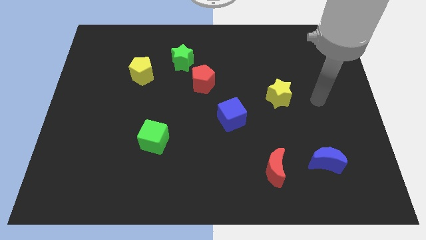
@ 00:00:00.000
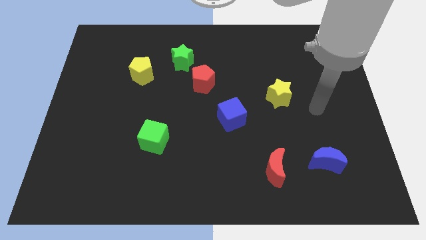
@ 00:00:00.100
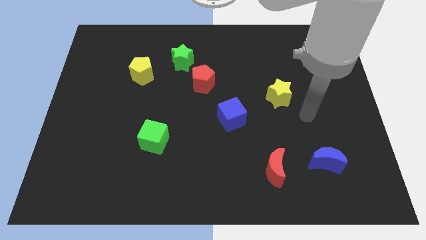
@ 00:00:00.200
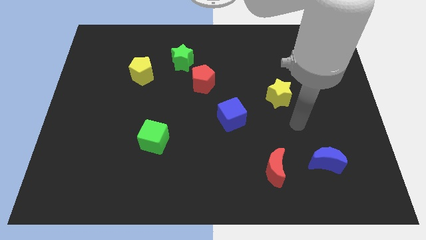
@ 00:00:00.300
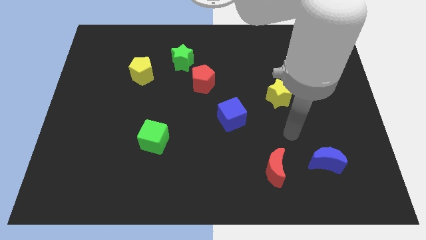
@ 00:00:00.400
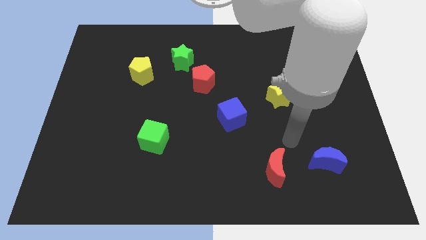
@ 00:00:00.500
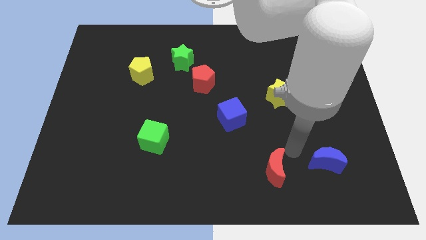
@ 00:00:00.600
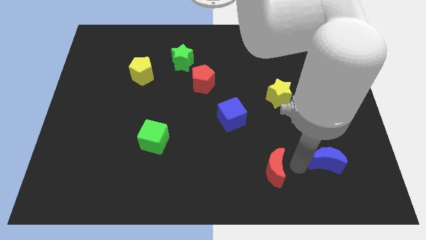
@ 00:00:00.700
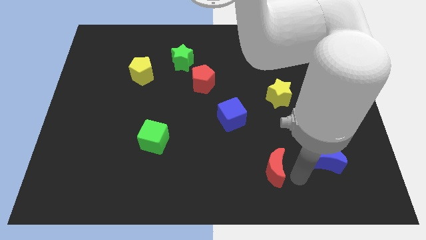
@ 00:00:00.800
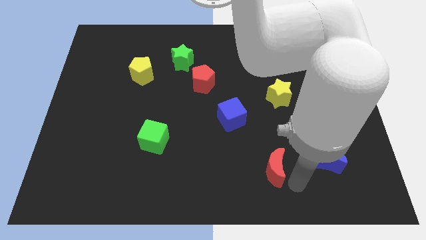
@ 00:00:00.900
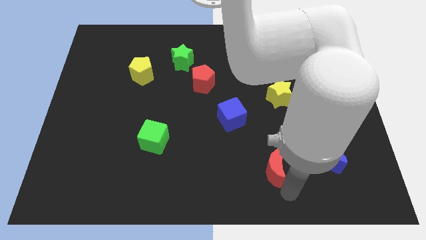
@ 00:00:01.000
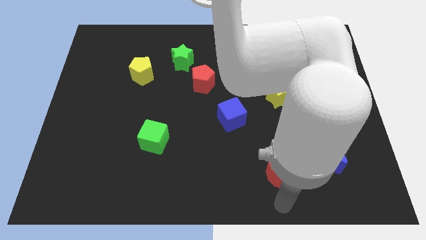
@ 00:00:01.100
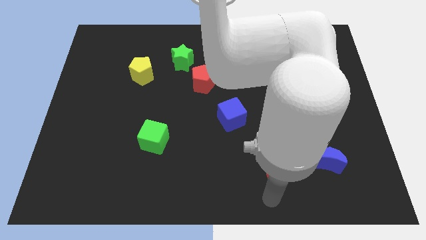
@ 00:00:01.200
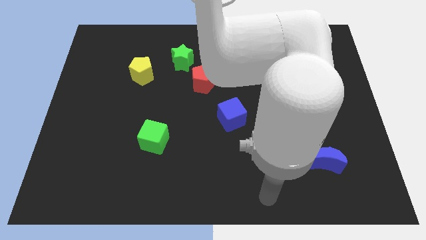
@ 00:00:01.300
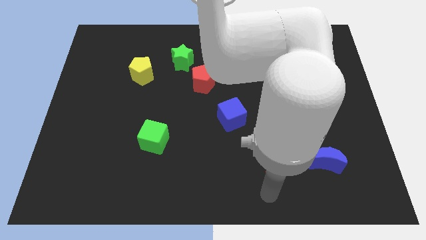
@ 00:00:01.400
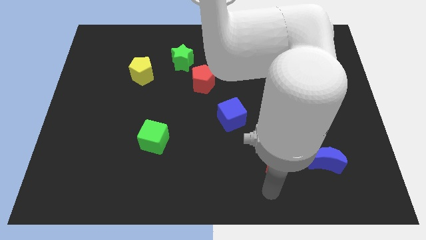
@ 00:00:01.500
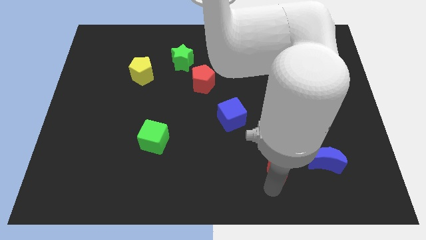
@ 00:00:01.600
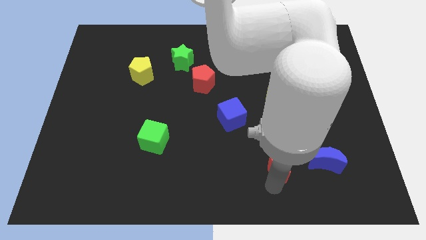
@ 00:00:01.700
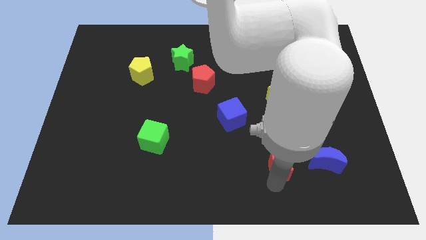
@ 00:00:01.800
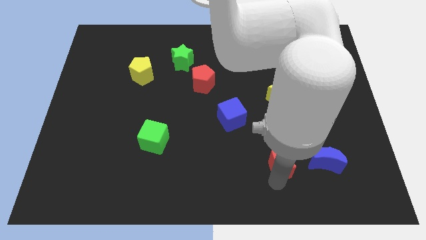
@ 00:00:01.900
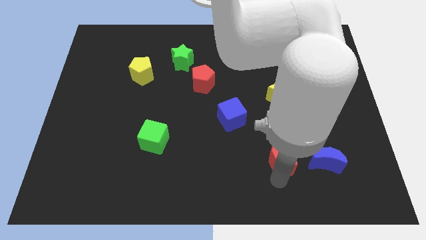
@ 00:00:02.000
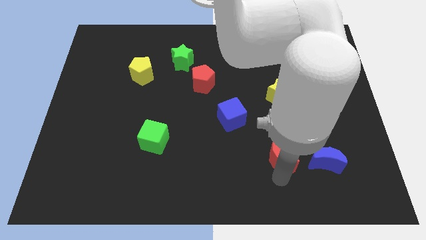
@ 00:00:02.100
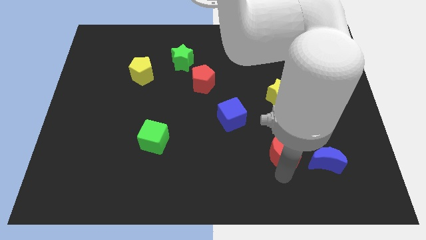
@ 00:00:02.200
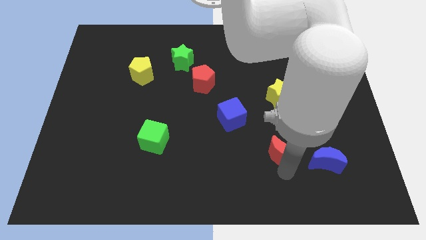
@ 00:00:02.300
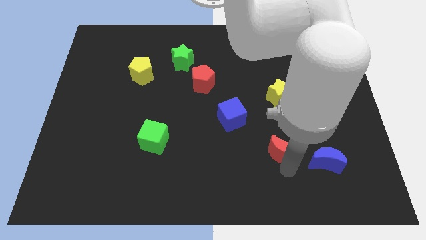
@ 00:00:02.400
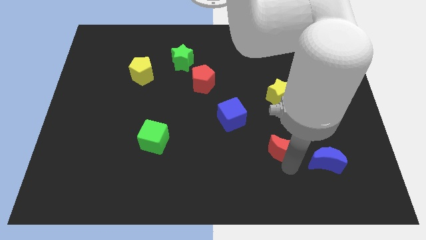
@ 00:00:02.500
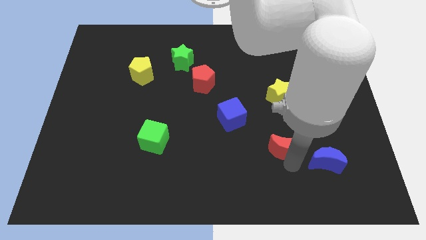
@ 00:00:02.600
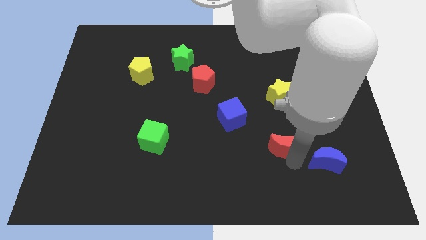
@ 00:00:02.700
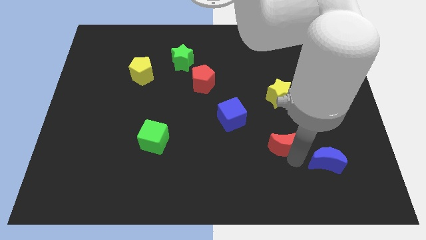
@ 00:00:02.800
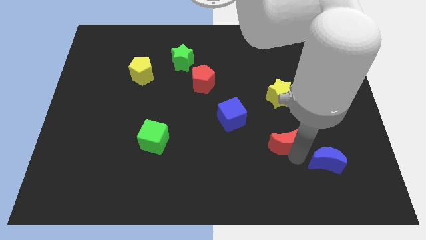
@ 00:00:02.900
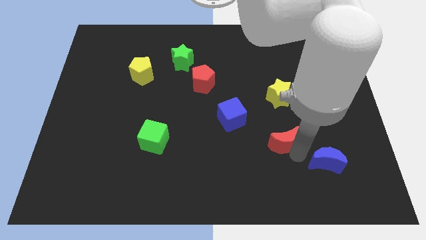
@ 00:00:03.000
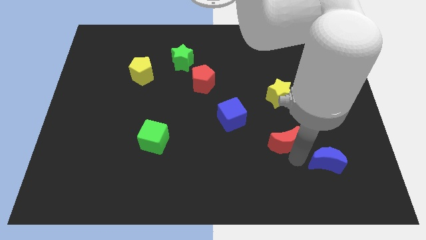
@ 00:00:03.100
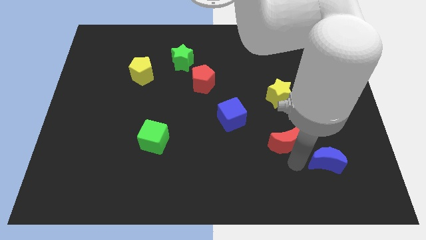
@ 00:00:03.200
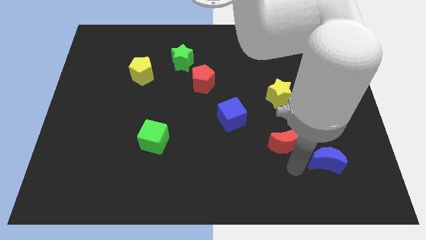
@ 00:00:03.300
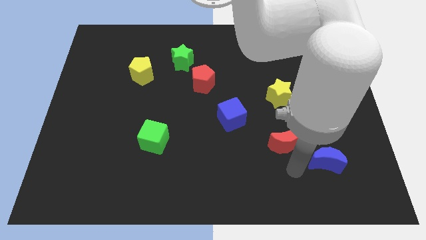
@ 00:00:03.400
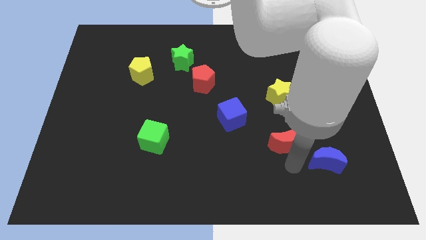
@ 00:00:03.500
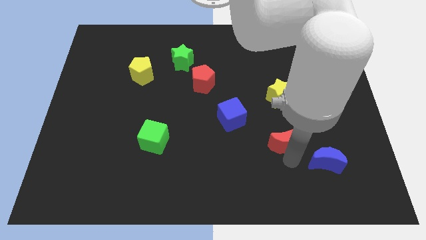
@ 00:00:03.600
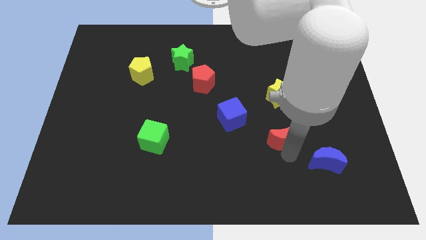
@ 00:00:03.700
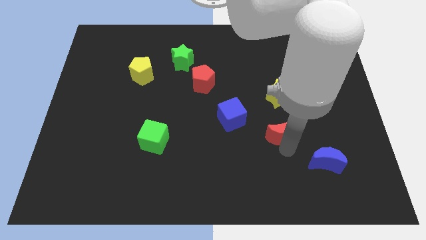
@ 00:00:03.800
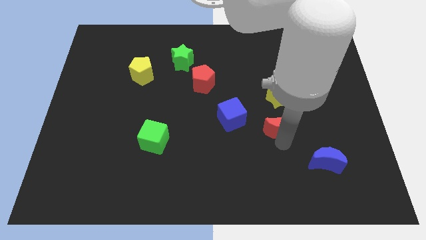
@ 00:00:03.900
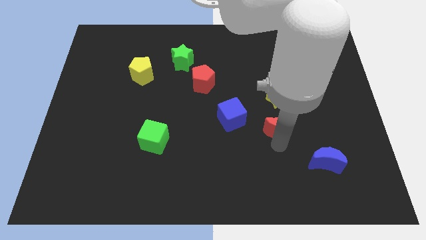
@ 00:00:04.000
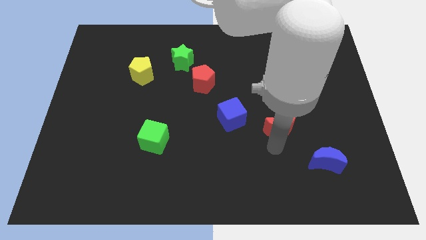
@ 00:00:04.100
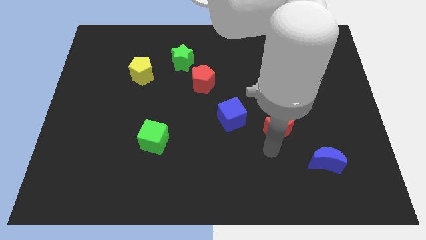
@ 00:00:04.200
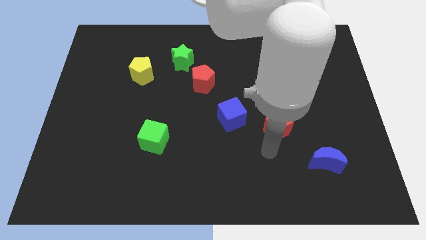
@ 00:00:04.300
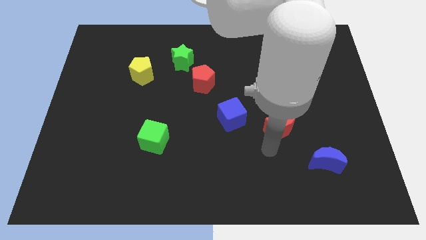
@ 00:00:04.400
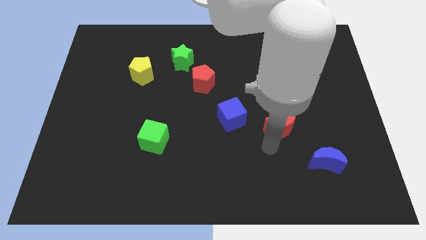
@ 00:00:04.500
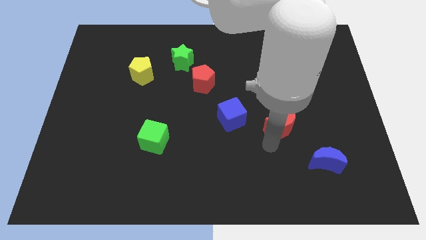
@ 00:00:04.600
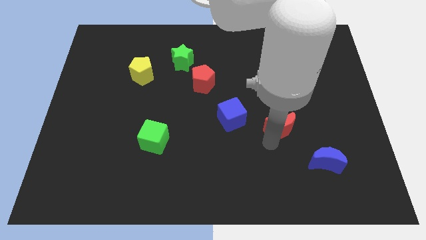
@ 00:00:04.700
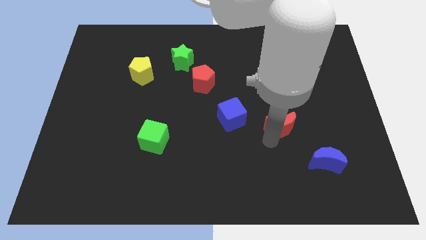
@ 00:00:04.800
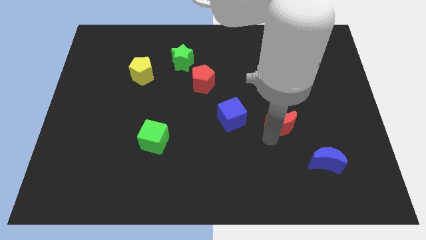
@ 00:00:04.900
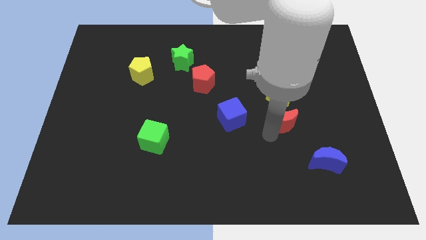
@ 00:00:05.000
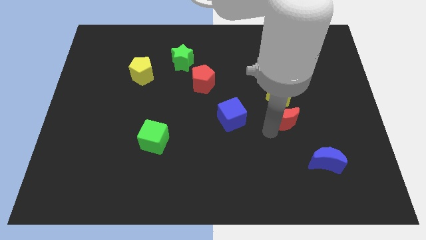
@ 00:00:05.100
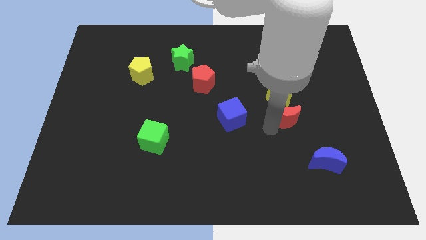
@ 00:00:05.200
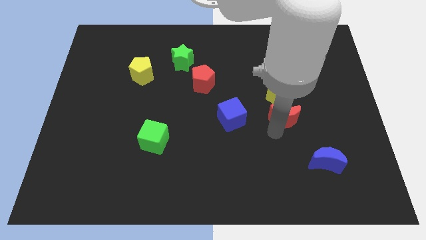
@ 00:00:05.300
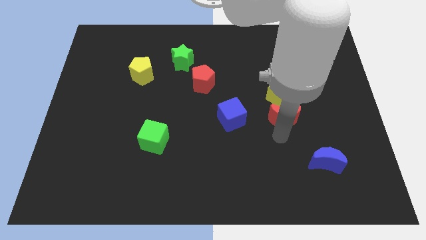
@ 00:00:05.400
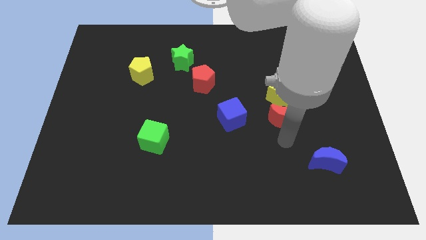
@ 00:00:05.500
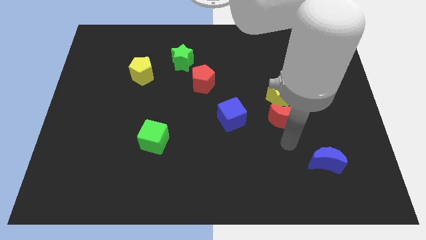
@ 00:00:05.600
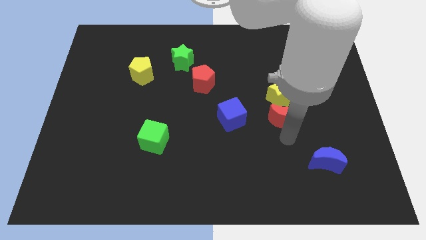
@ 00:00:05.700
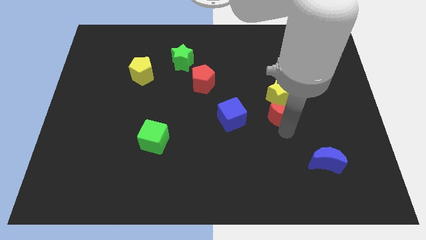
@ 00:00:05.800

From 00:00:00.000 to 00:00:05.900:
move the red moon to the yellow star

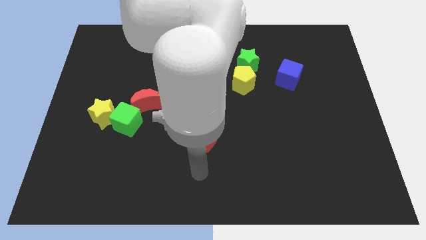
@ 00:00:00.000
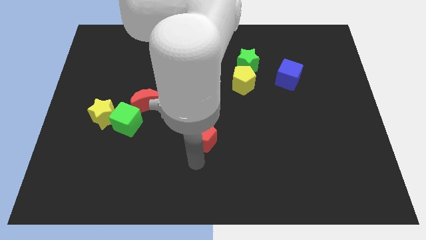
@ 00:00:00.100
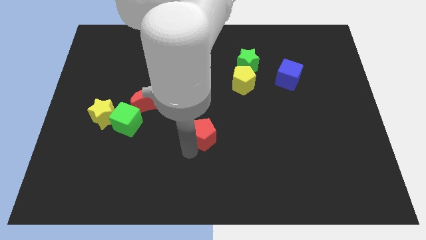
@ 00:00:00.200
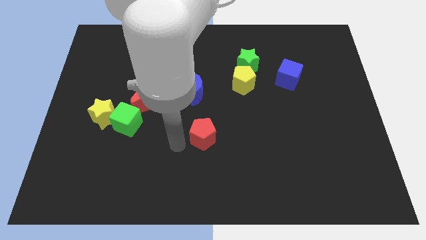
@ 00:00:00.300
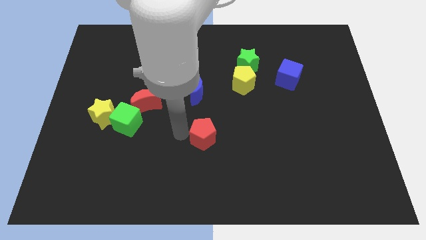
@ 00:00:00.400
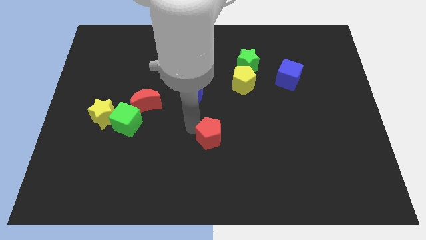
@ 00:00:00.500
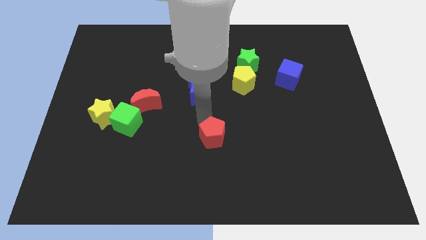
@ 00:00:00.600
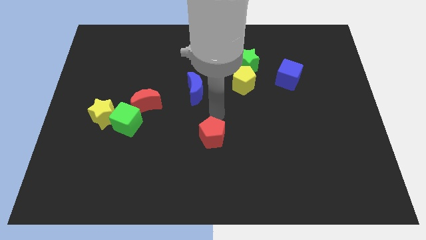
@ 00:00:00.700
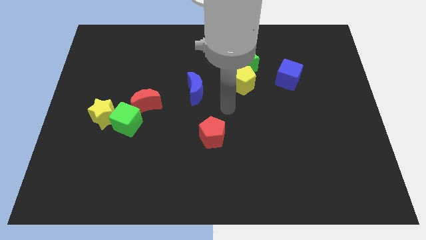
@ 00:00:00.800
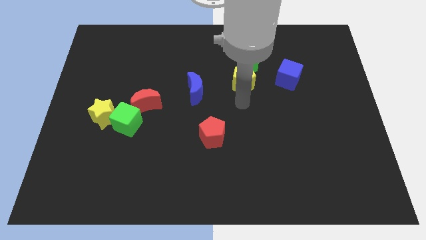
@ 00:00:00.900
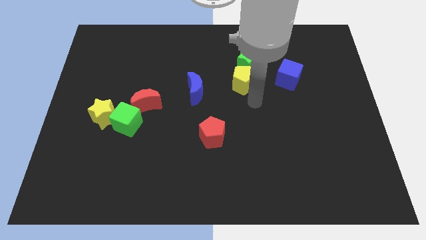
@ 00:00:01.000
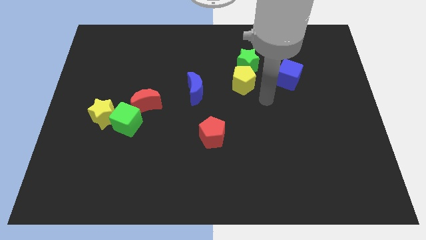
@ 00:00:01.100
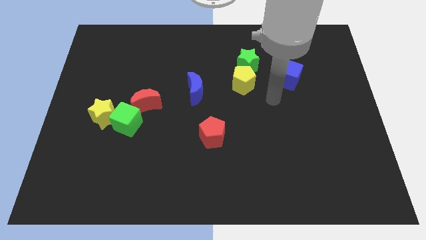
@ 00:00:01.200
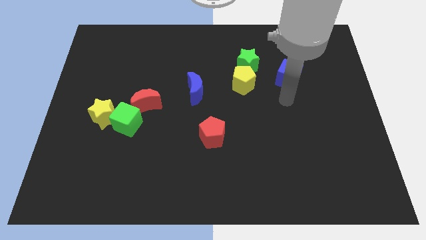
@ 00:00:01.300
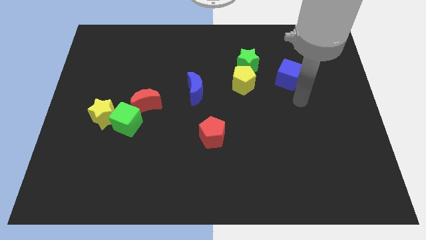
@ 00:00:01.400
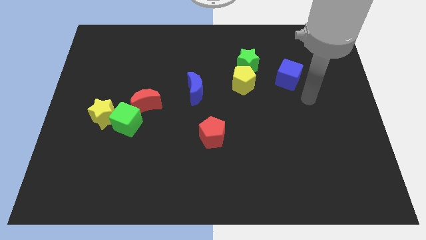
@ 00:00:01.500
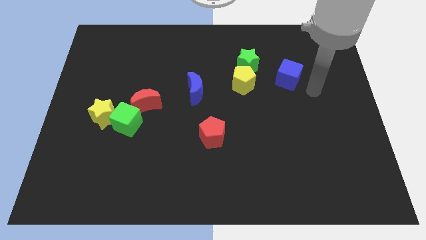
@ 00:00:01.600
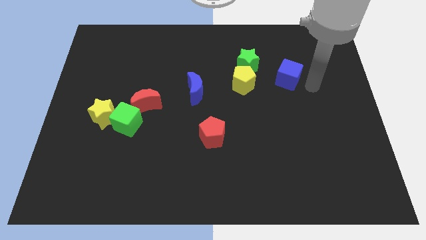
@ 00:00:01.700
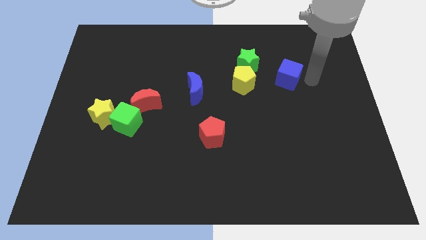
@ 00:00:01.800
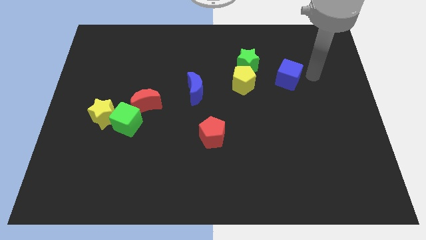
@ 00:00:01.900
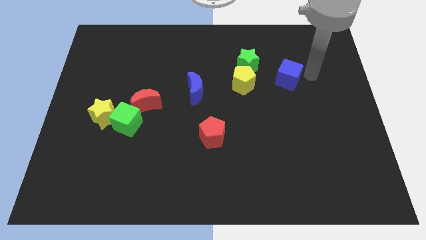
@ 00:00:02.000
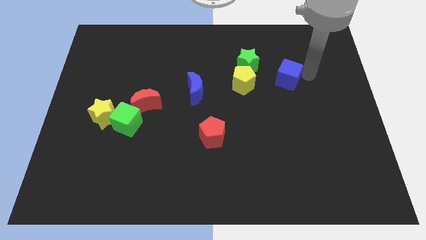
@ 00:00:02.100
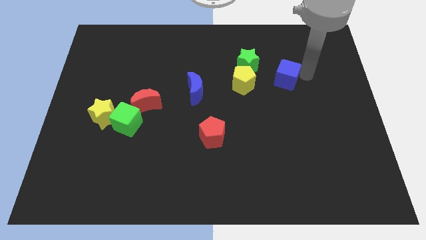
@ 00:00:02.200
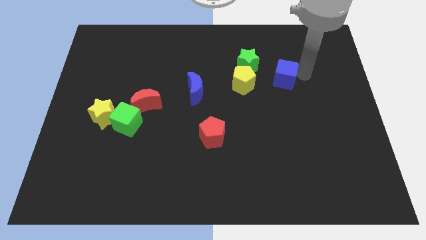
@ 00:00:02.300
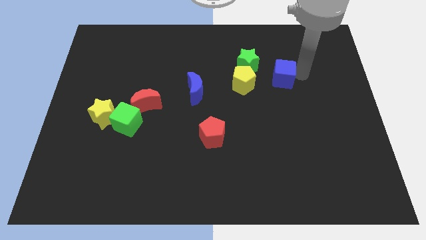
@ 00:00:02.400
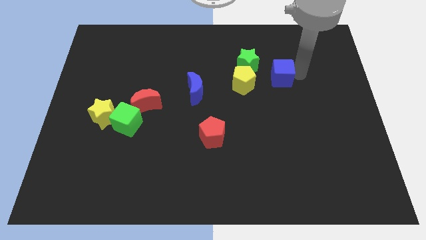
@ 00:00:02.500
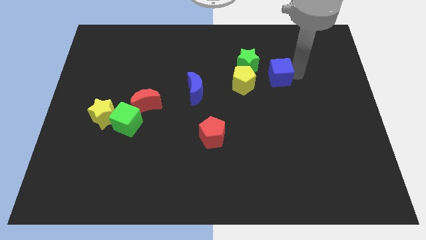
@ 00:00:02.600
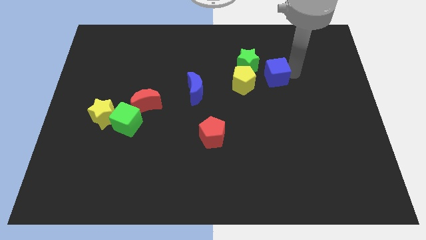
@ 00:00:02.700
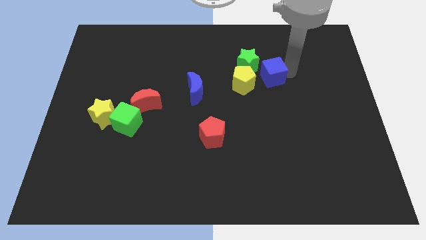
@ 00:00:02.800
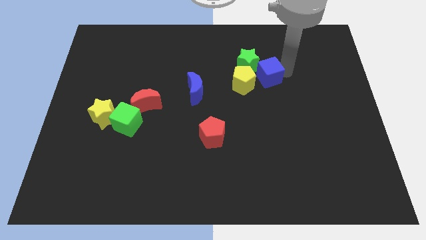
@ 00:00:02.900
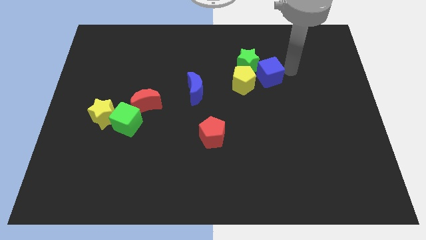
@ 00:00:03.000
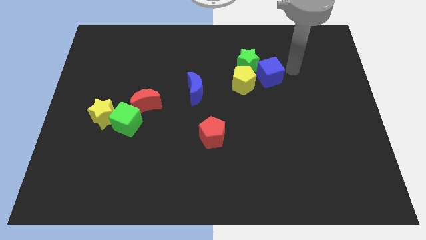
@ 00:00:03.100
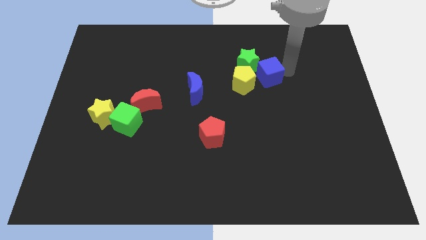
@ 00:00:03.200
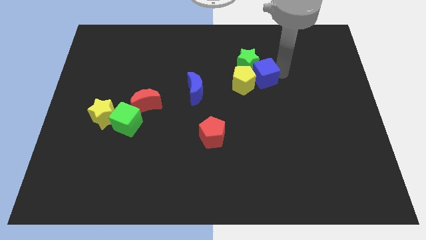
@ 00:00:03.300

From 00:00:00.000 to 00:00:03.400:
push the blue cube close to the yellow pentagon
